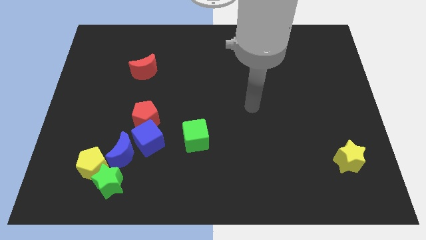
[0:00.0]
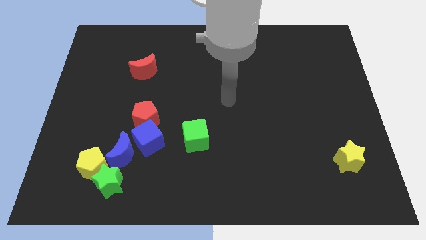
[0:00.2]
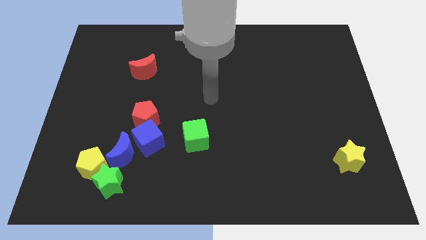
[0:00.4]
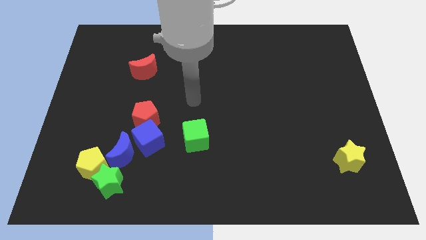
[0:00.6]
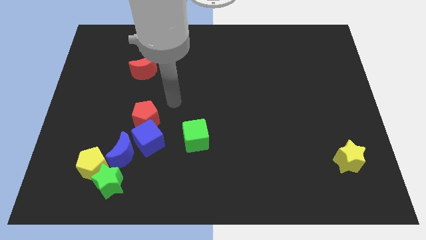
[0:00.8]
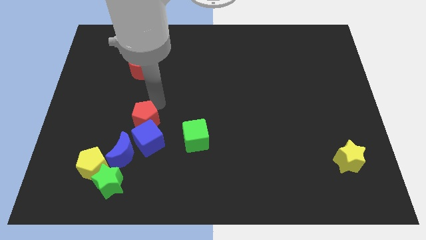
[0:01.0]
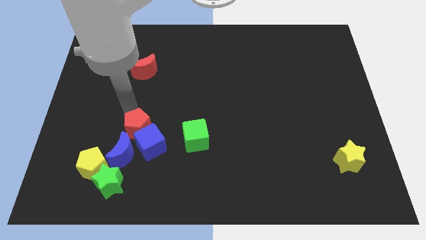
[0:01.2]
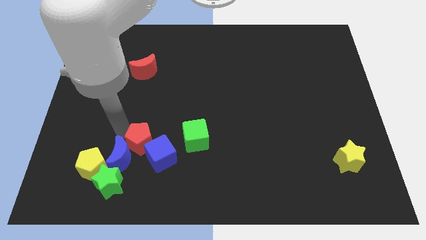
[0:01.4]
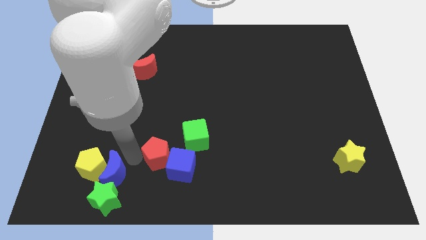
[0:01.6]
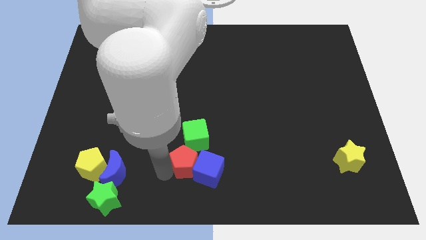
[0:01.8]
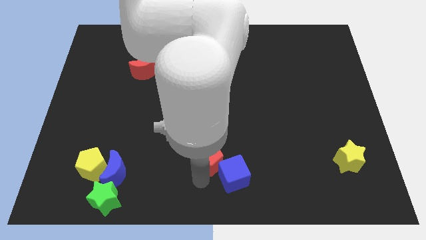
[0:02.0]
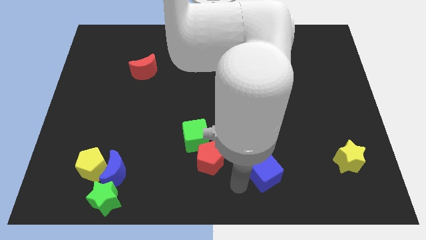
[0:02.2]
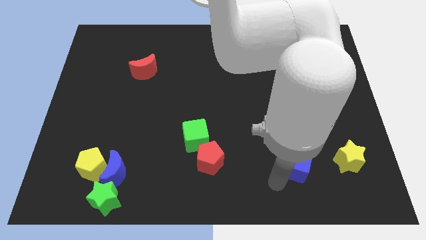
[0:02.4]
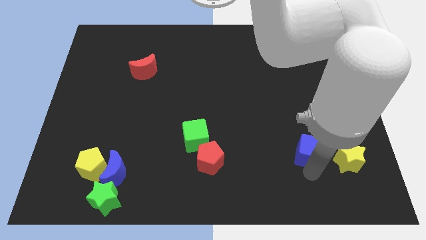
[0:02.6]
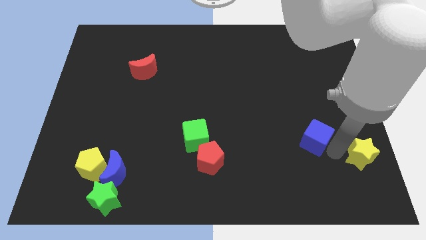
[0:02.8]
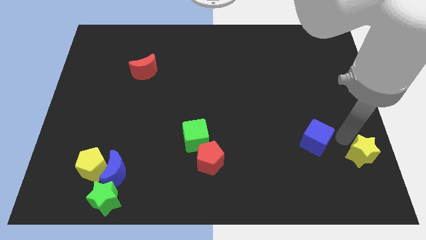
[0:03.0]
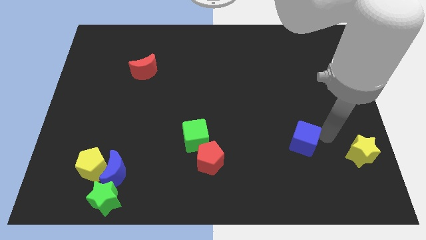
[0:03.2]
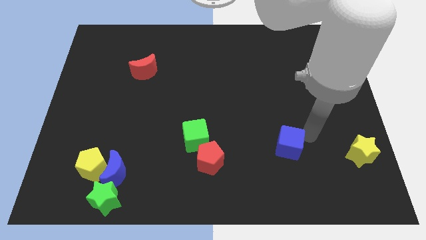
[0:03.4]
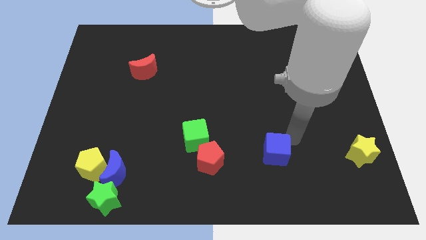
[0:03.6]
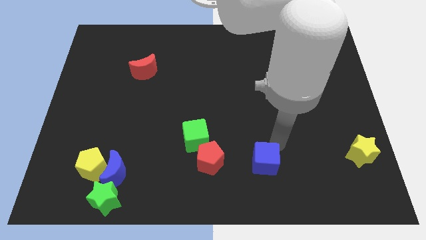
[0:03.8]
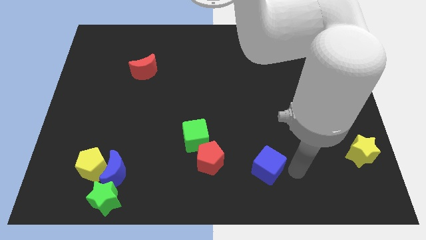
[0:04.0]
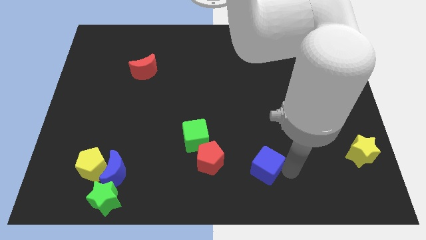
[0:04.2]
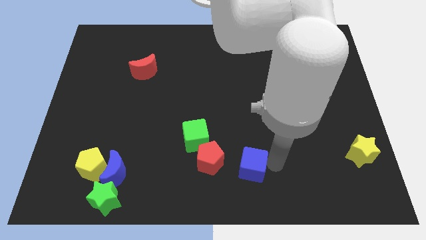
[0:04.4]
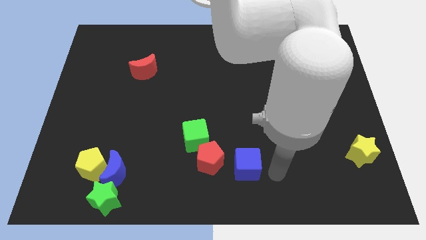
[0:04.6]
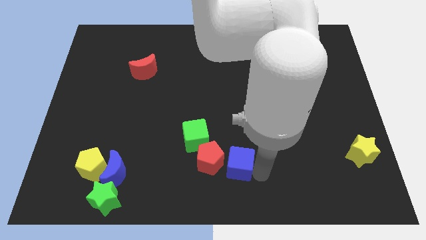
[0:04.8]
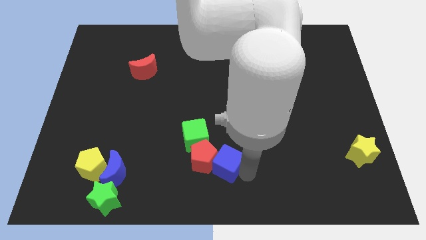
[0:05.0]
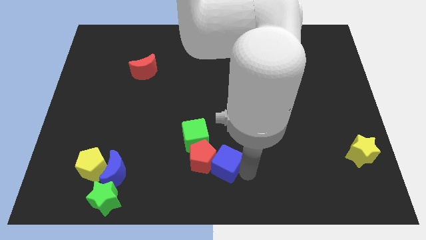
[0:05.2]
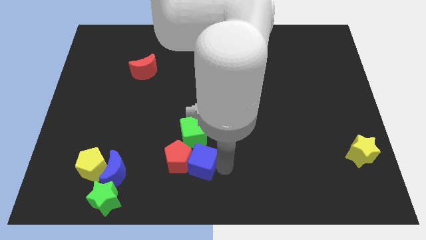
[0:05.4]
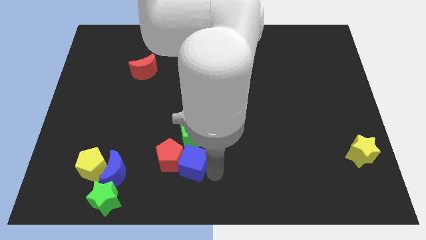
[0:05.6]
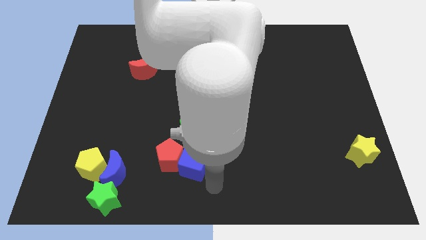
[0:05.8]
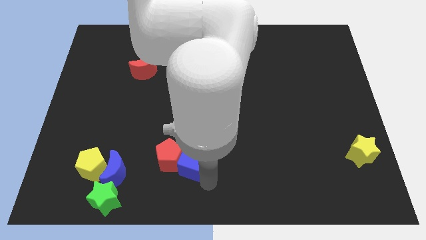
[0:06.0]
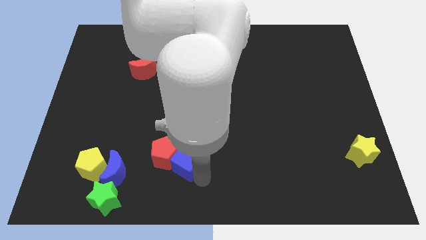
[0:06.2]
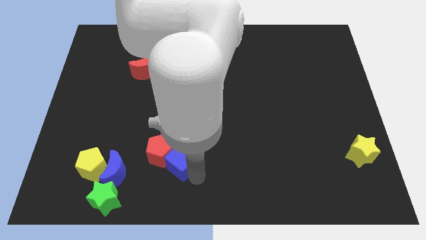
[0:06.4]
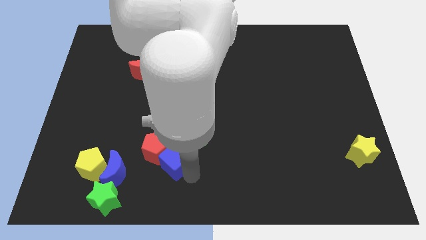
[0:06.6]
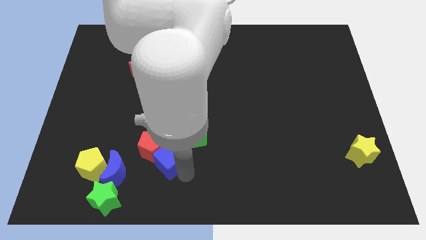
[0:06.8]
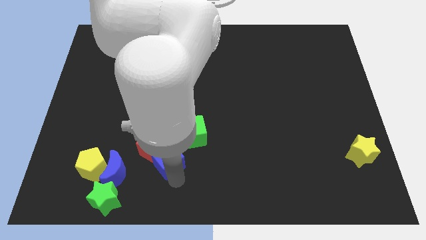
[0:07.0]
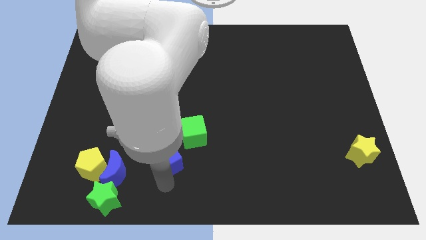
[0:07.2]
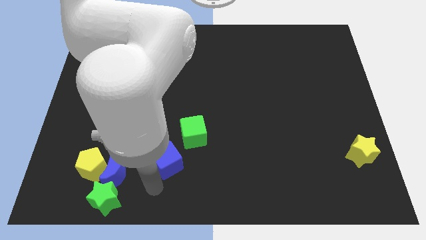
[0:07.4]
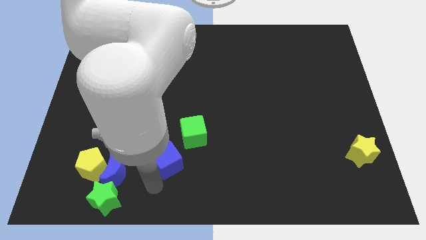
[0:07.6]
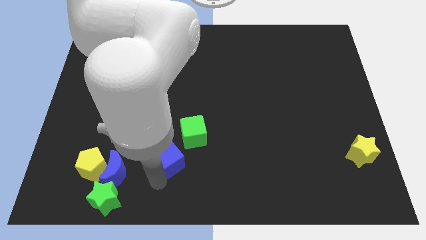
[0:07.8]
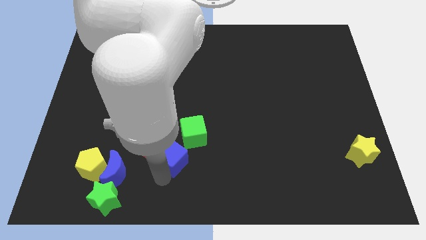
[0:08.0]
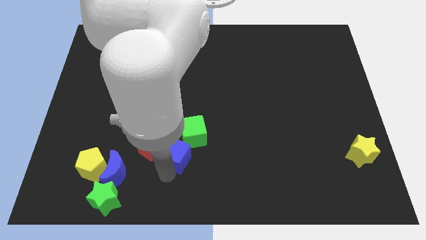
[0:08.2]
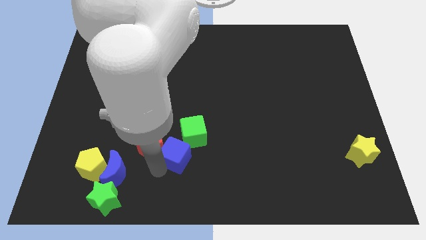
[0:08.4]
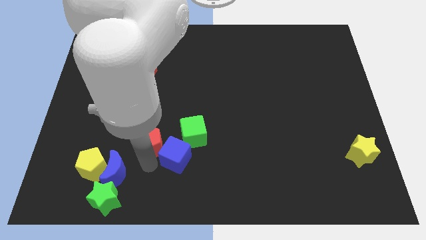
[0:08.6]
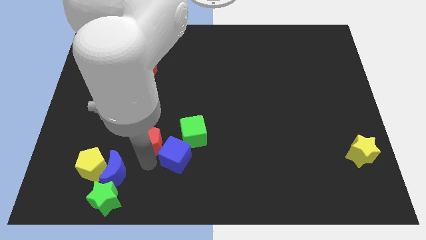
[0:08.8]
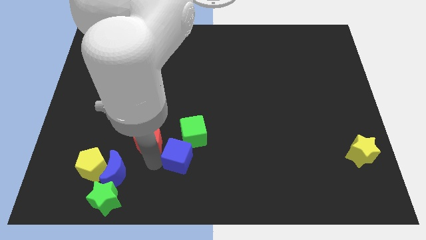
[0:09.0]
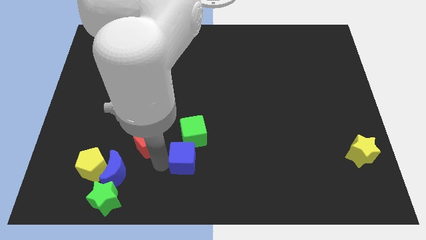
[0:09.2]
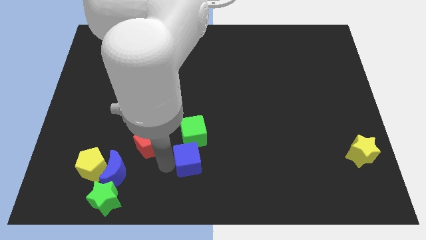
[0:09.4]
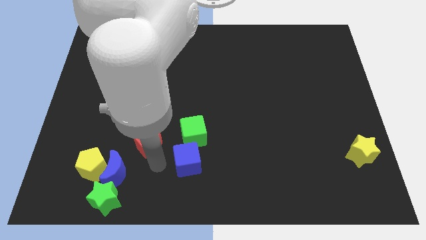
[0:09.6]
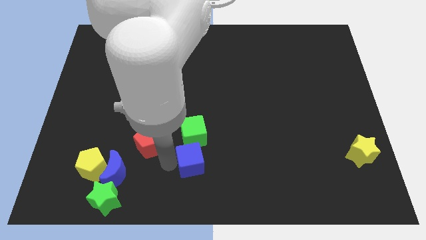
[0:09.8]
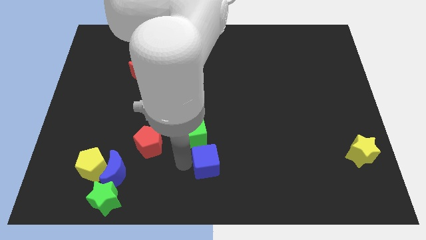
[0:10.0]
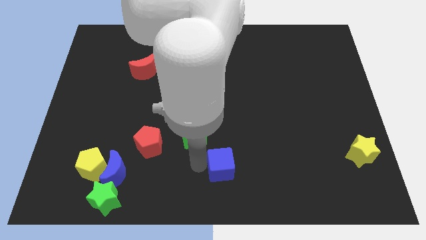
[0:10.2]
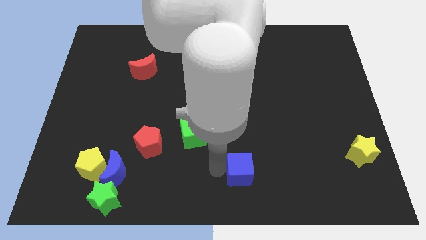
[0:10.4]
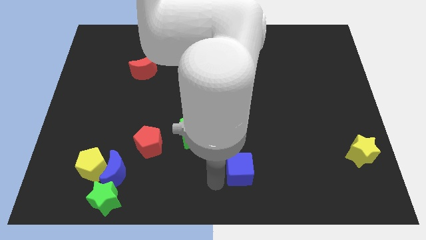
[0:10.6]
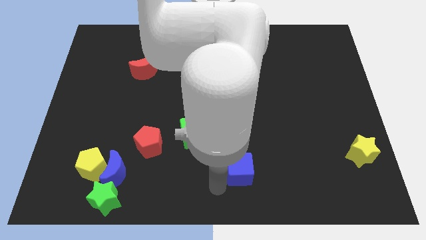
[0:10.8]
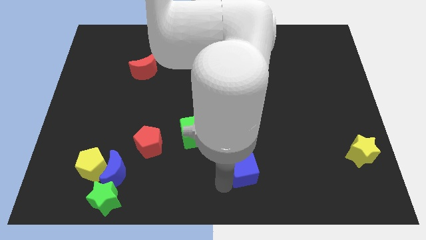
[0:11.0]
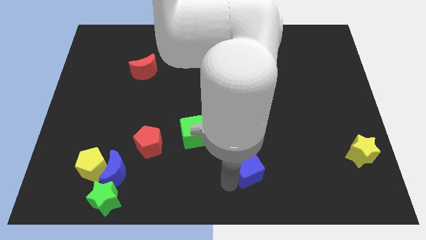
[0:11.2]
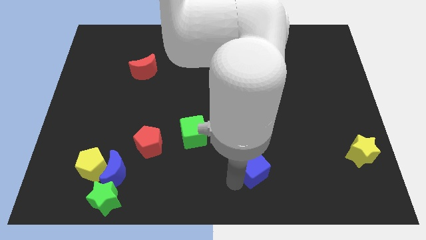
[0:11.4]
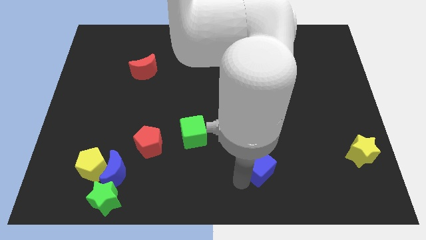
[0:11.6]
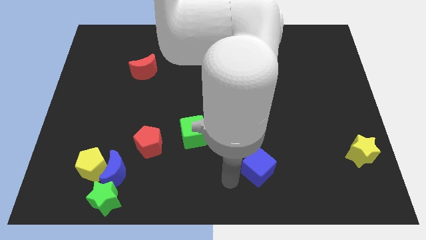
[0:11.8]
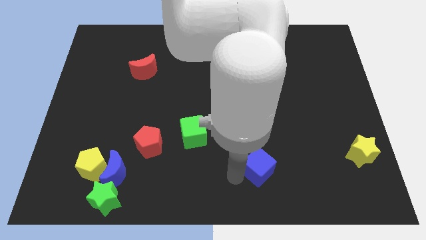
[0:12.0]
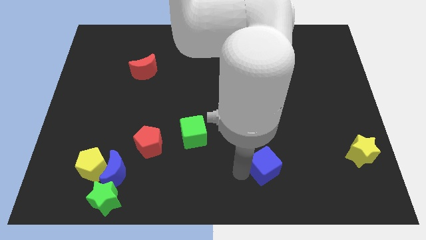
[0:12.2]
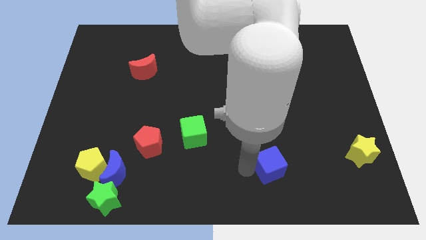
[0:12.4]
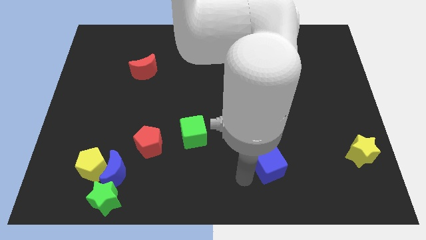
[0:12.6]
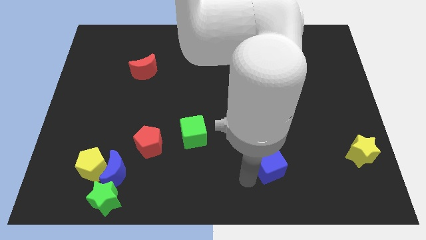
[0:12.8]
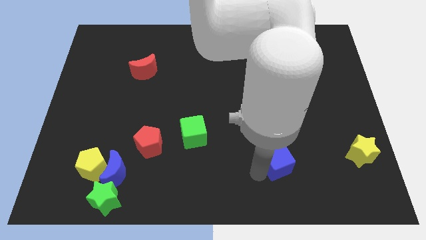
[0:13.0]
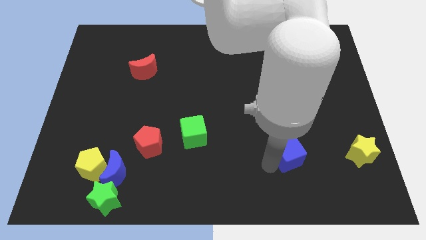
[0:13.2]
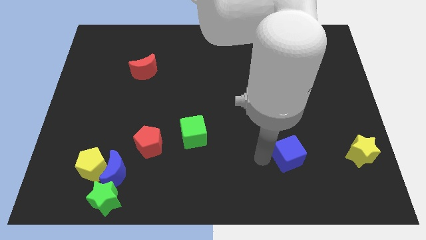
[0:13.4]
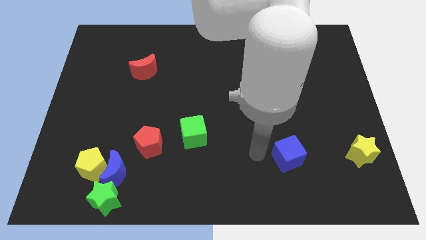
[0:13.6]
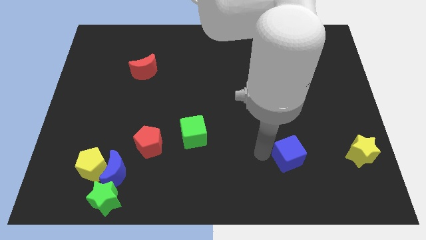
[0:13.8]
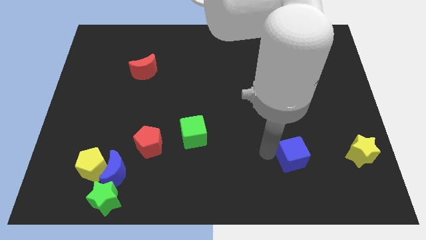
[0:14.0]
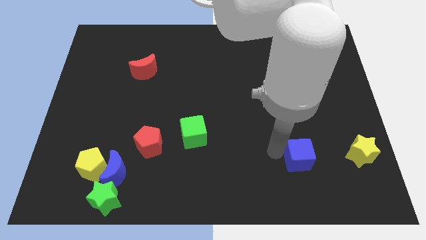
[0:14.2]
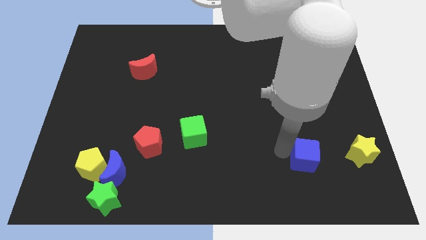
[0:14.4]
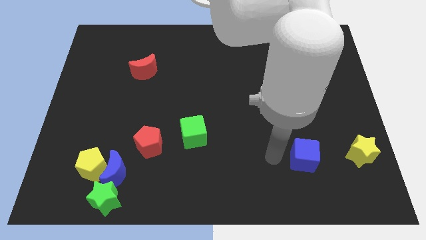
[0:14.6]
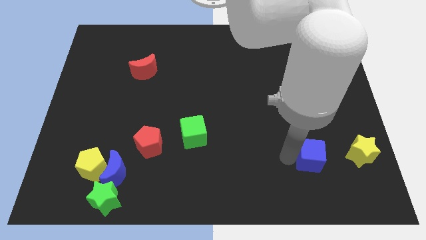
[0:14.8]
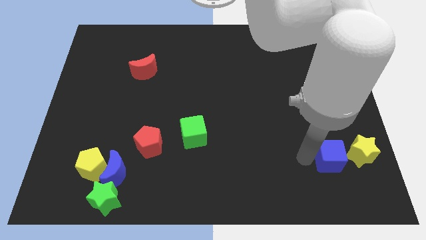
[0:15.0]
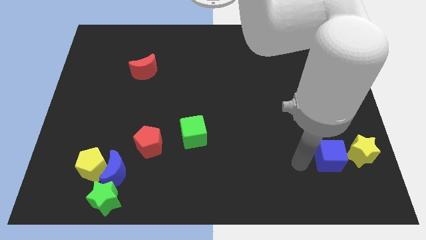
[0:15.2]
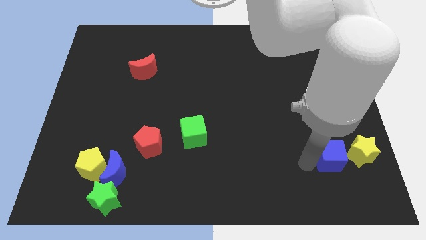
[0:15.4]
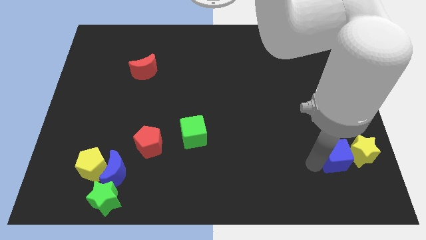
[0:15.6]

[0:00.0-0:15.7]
move the blue cube towards the yellow star
